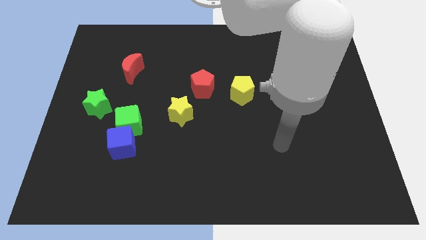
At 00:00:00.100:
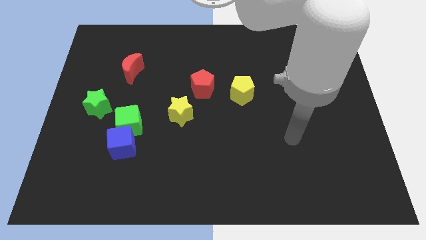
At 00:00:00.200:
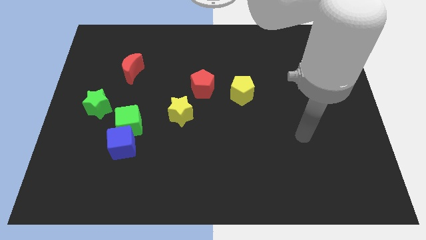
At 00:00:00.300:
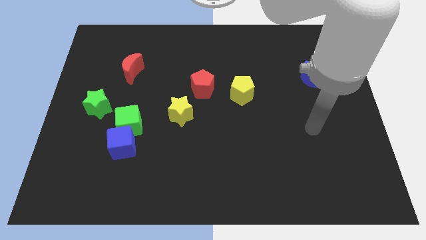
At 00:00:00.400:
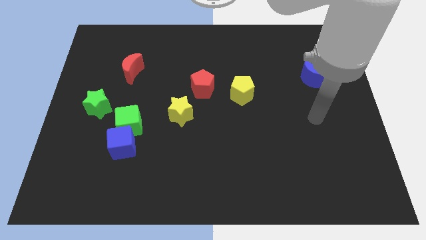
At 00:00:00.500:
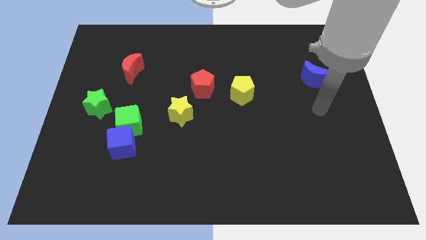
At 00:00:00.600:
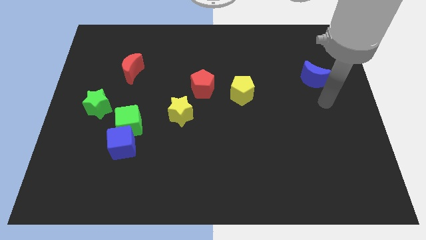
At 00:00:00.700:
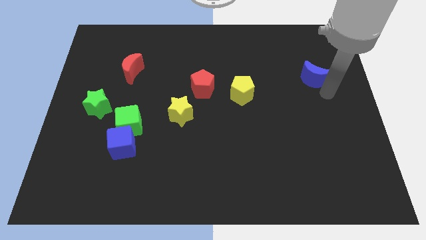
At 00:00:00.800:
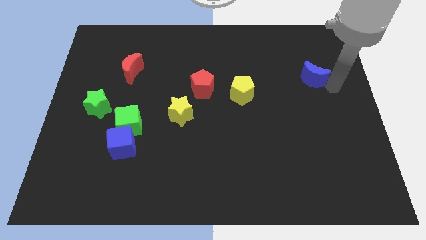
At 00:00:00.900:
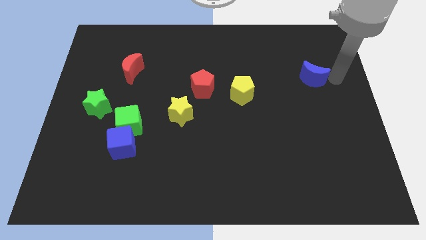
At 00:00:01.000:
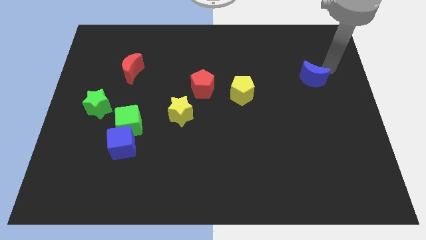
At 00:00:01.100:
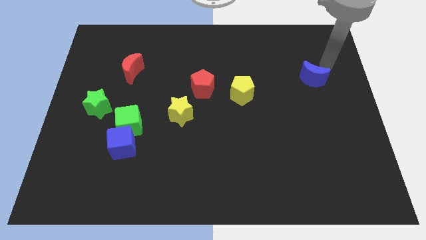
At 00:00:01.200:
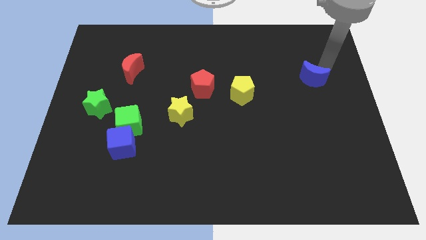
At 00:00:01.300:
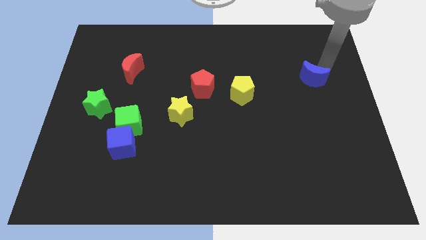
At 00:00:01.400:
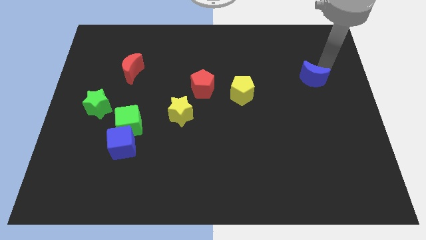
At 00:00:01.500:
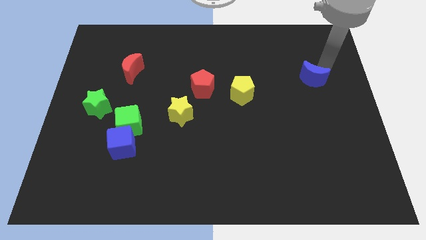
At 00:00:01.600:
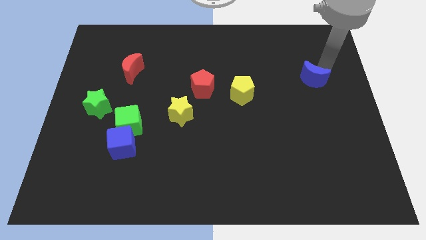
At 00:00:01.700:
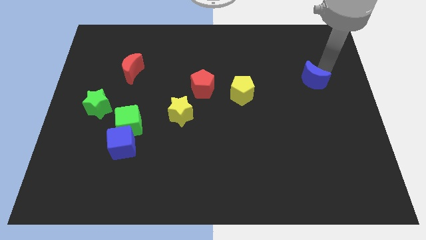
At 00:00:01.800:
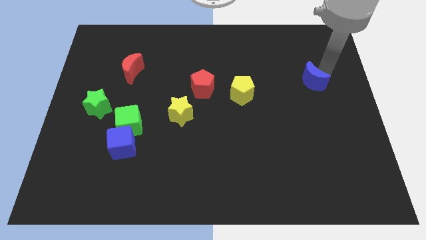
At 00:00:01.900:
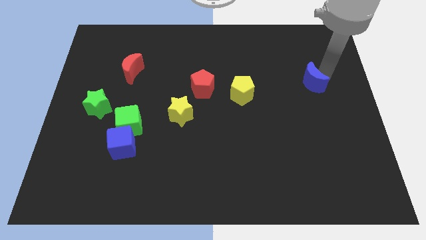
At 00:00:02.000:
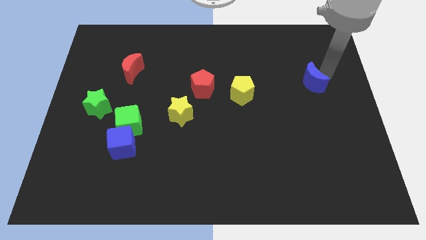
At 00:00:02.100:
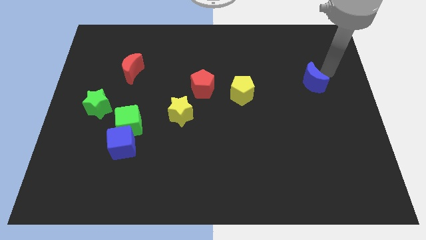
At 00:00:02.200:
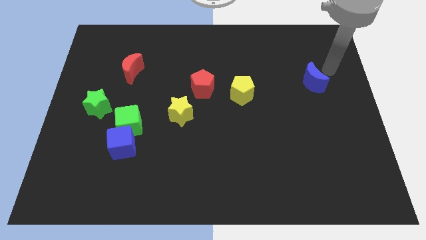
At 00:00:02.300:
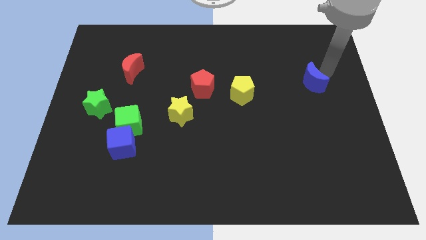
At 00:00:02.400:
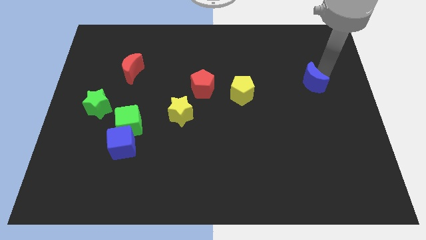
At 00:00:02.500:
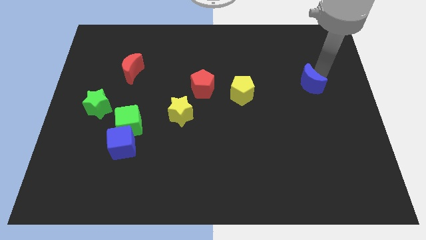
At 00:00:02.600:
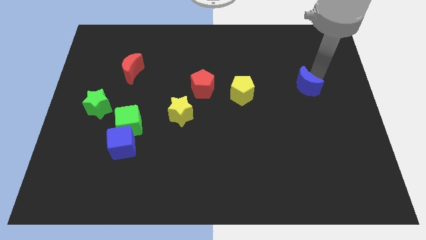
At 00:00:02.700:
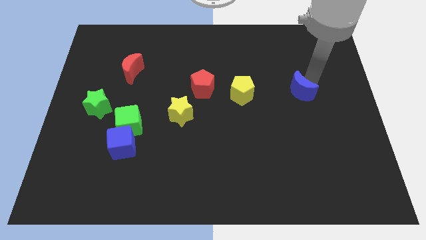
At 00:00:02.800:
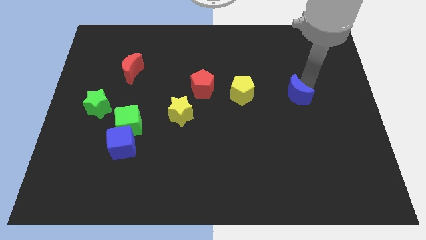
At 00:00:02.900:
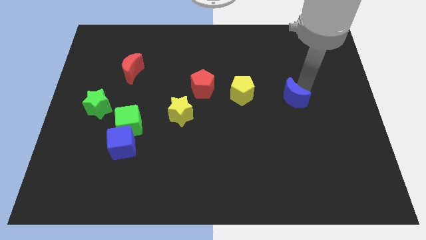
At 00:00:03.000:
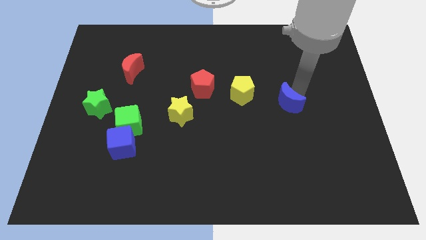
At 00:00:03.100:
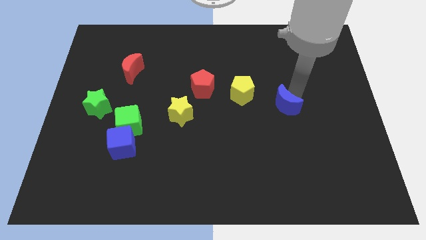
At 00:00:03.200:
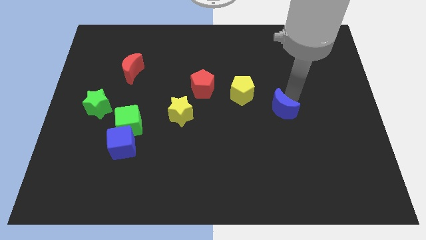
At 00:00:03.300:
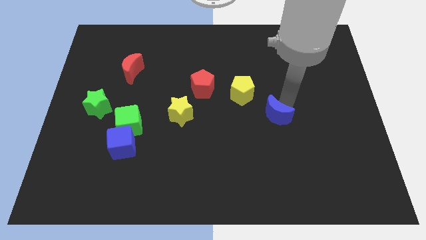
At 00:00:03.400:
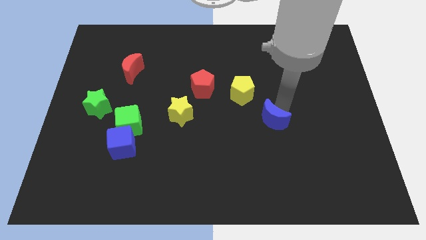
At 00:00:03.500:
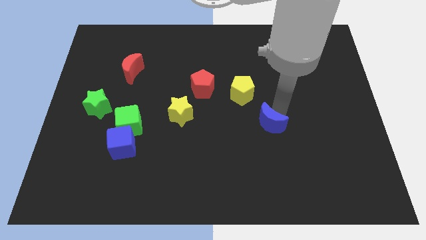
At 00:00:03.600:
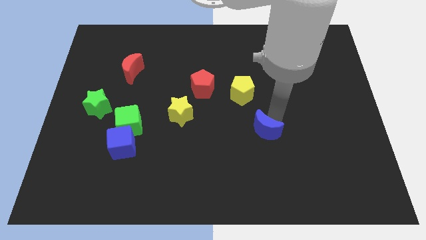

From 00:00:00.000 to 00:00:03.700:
slide the blue moon down and left

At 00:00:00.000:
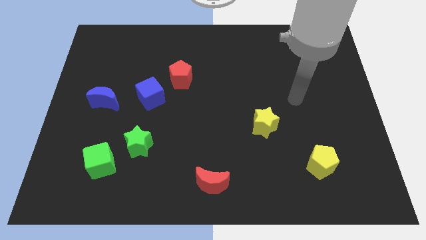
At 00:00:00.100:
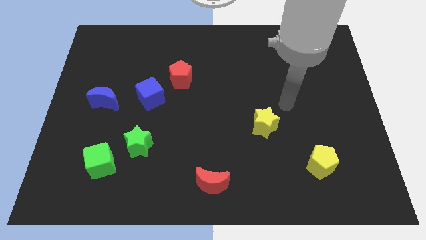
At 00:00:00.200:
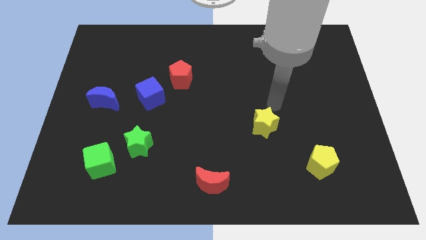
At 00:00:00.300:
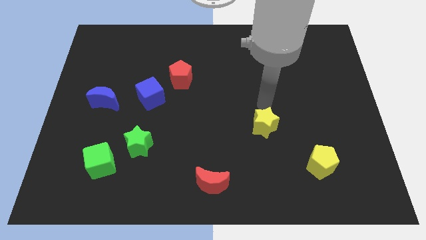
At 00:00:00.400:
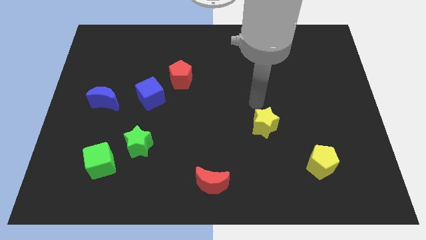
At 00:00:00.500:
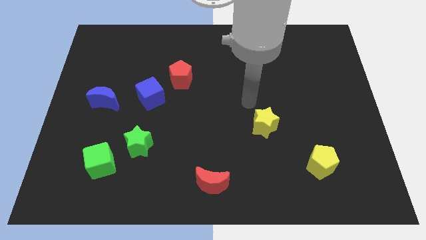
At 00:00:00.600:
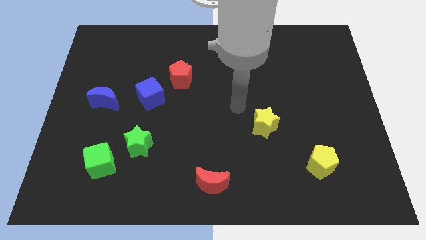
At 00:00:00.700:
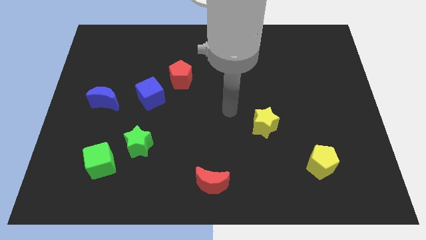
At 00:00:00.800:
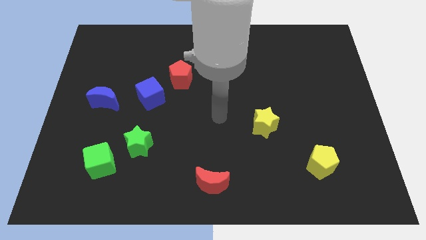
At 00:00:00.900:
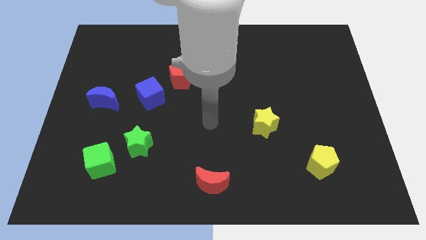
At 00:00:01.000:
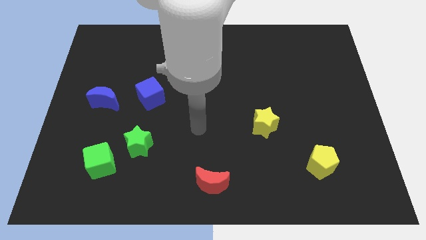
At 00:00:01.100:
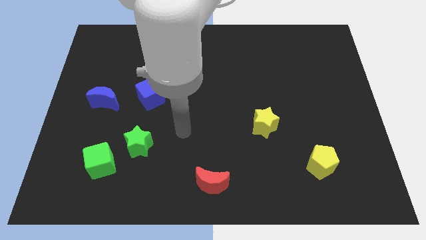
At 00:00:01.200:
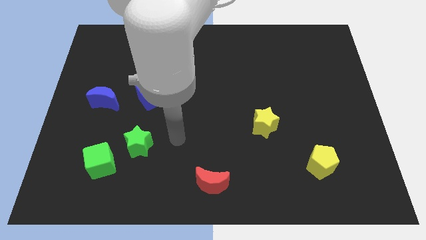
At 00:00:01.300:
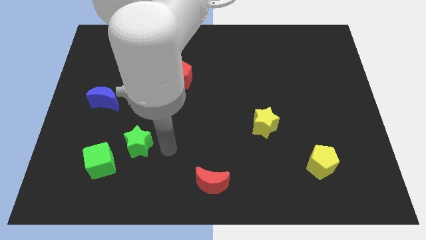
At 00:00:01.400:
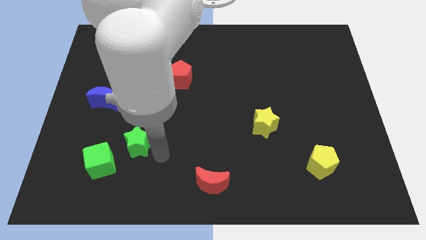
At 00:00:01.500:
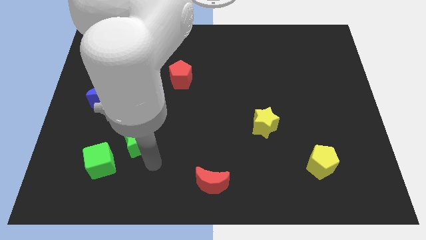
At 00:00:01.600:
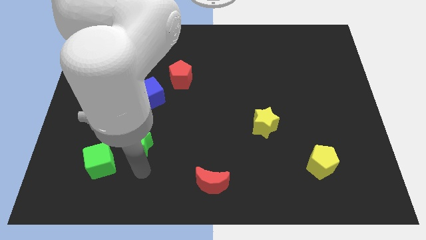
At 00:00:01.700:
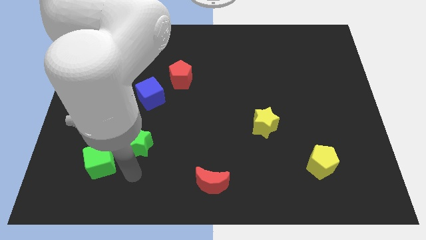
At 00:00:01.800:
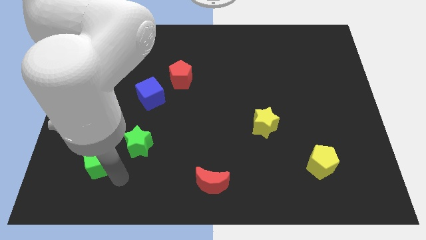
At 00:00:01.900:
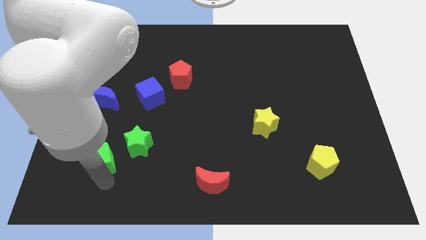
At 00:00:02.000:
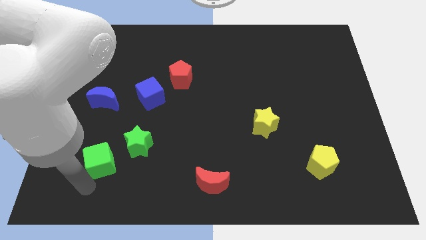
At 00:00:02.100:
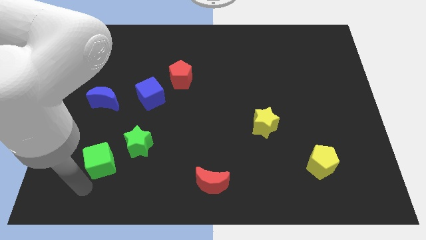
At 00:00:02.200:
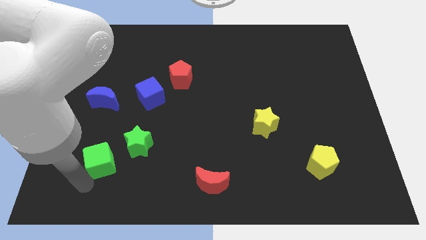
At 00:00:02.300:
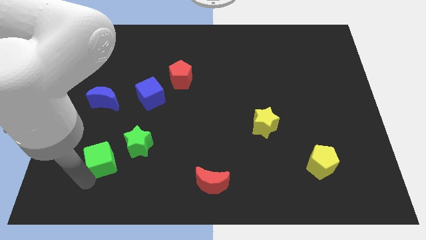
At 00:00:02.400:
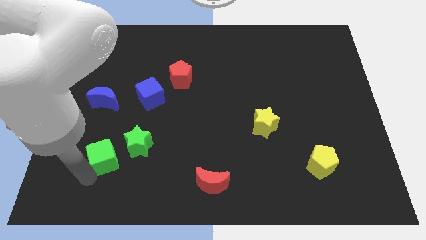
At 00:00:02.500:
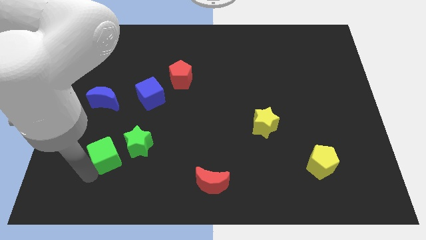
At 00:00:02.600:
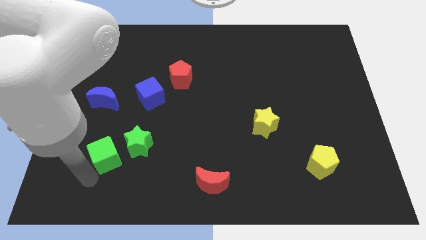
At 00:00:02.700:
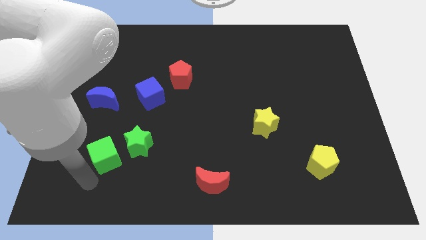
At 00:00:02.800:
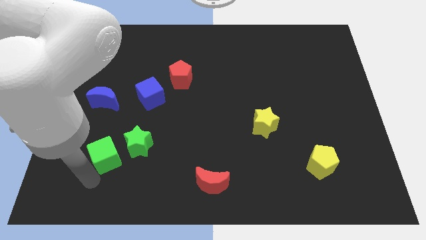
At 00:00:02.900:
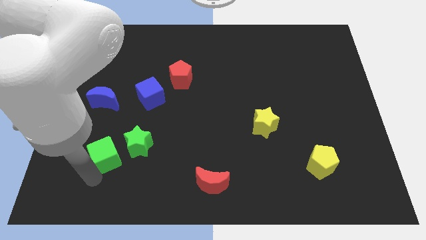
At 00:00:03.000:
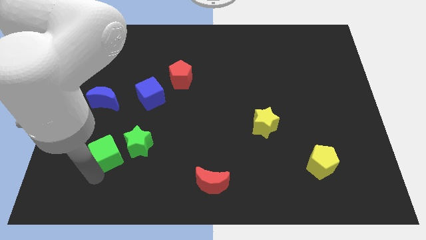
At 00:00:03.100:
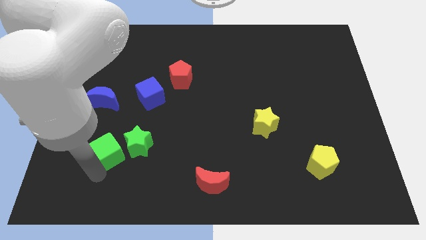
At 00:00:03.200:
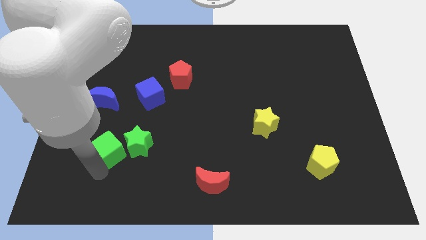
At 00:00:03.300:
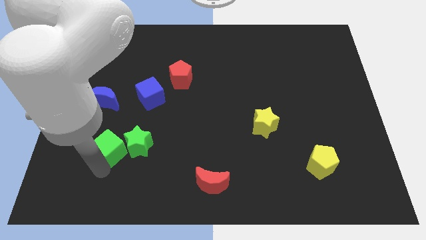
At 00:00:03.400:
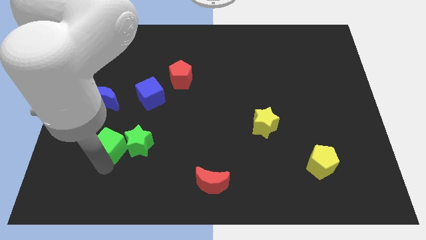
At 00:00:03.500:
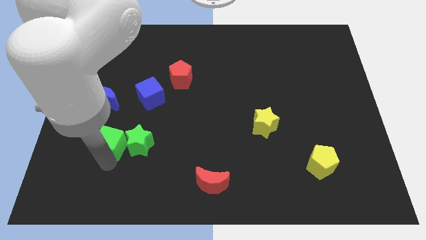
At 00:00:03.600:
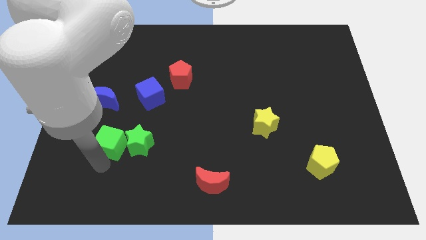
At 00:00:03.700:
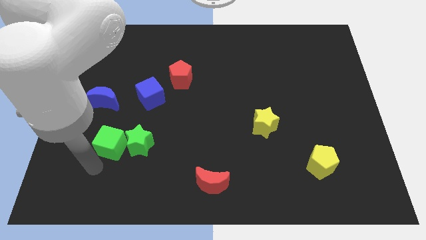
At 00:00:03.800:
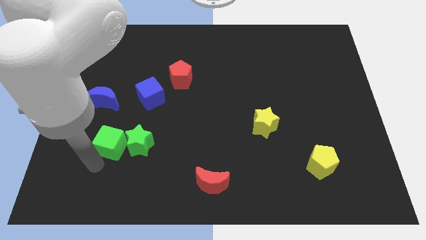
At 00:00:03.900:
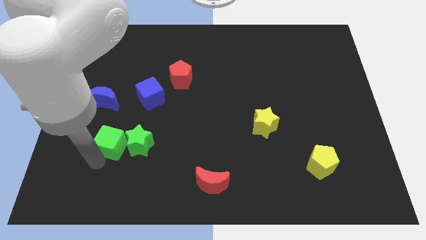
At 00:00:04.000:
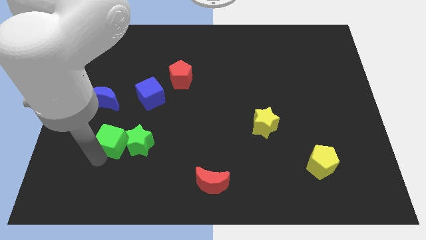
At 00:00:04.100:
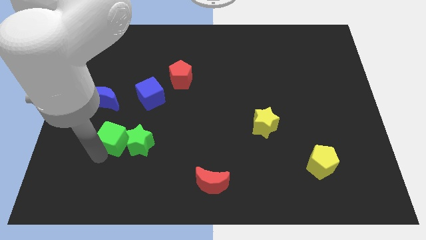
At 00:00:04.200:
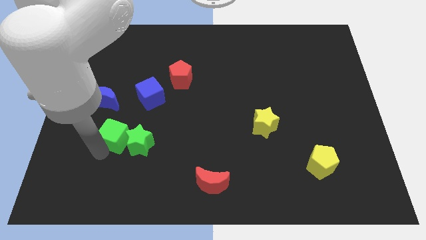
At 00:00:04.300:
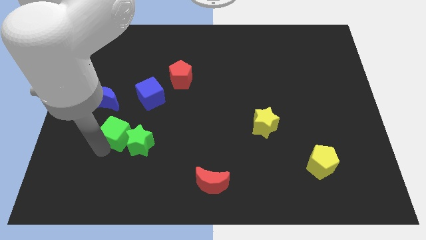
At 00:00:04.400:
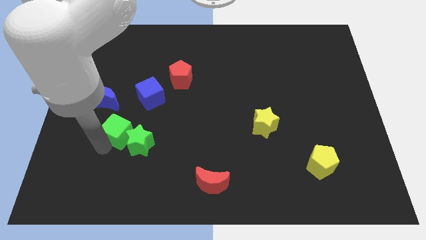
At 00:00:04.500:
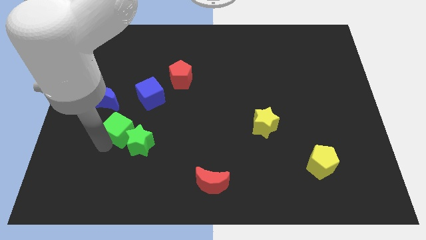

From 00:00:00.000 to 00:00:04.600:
slide the green cube upwards and to the right diagonally a little bit
